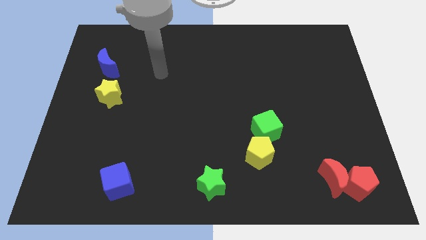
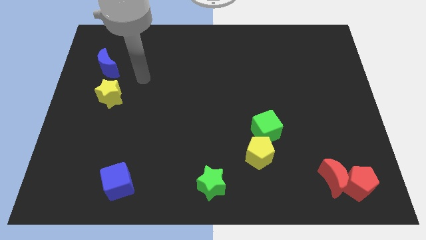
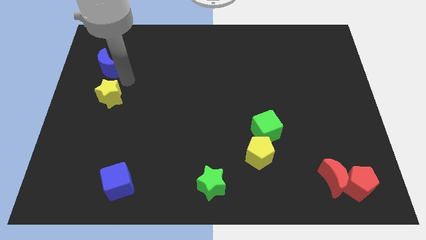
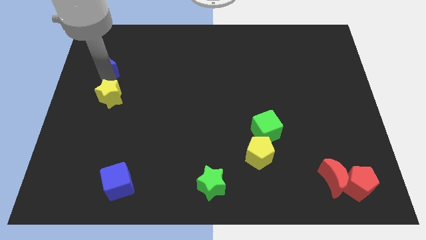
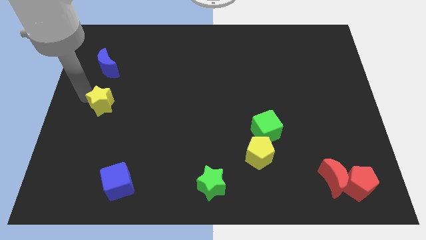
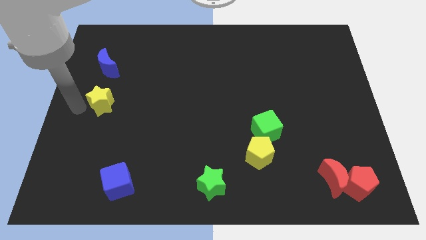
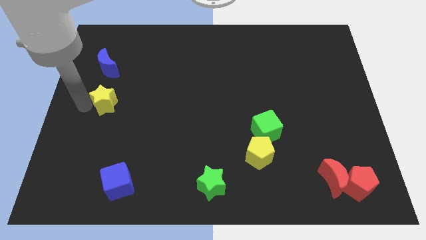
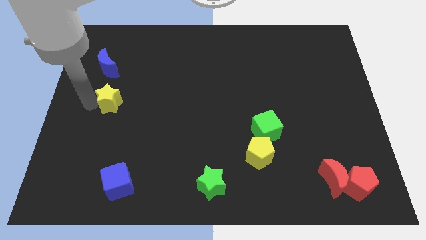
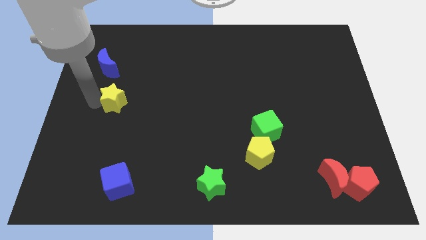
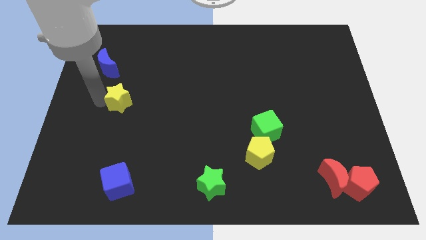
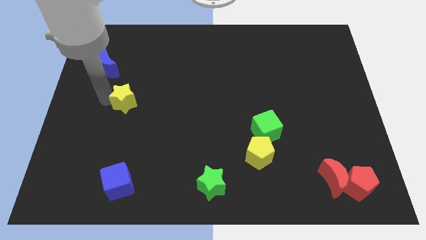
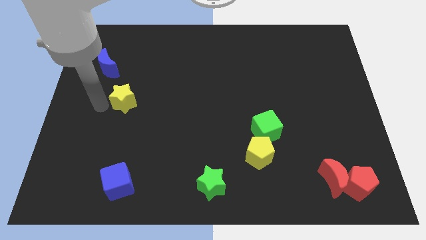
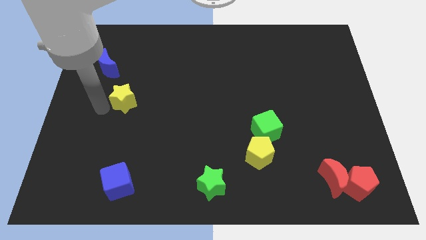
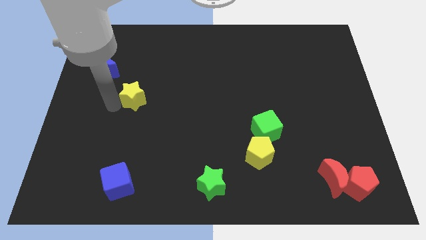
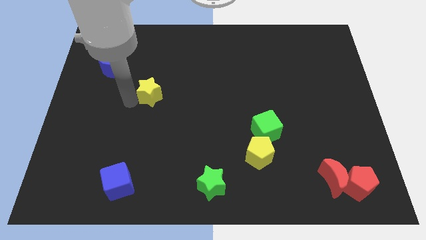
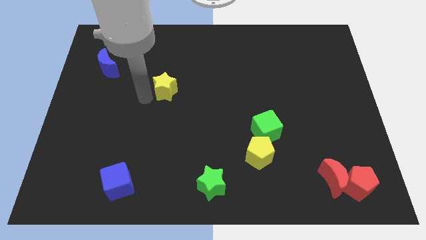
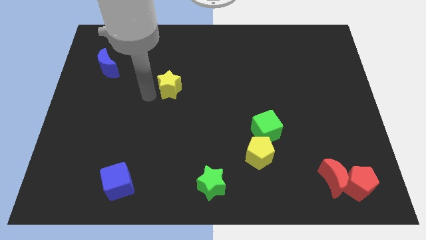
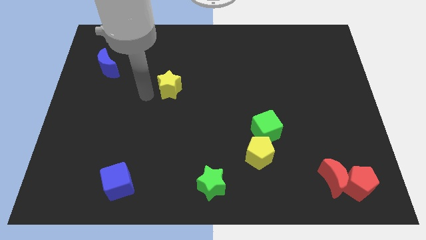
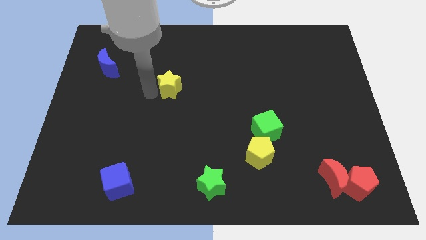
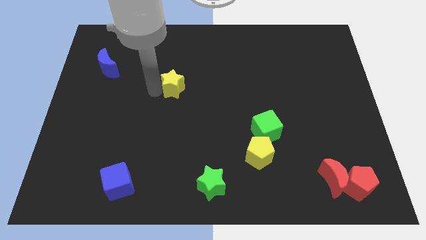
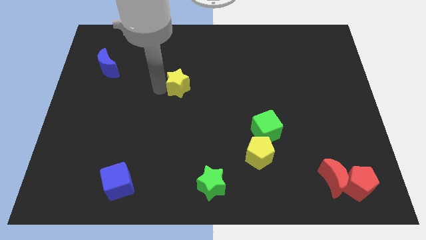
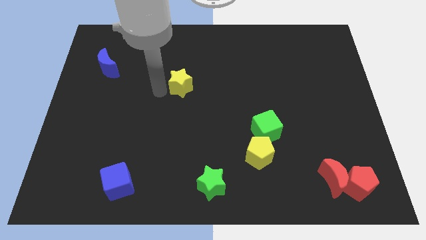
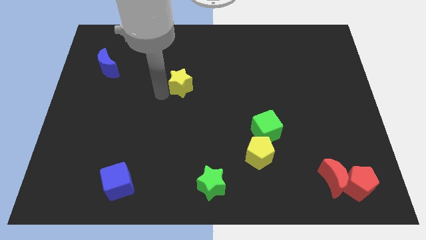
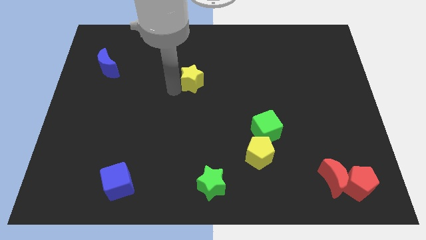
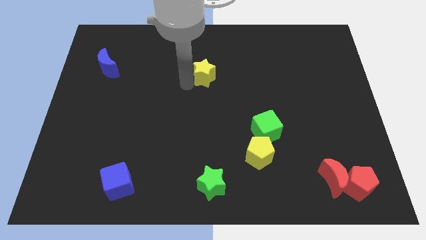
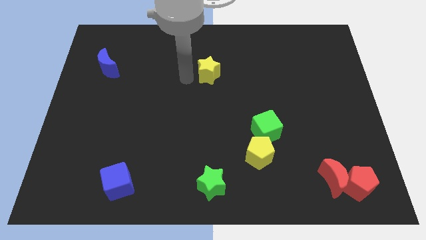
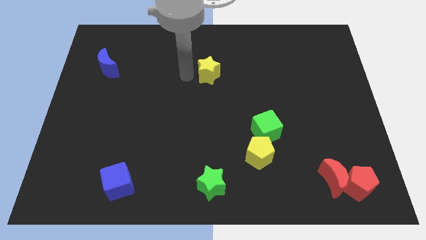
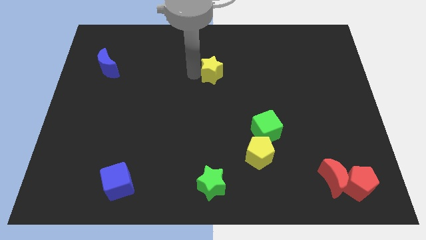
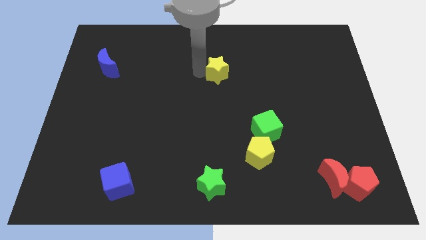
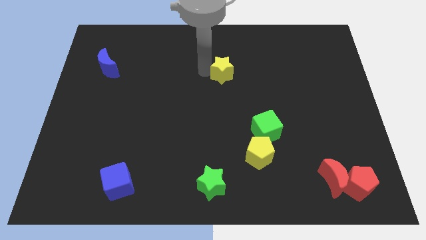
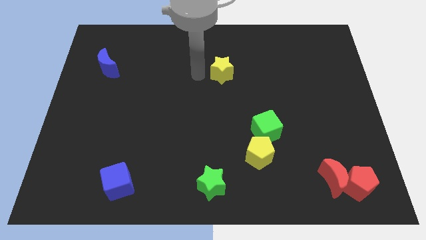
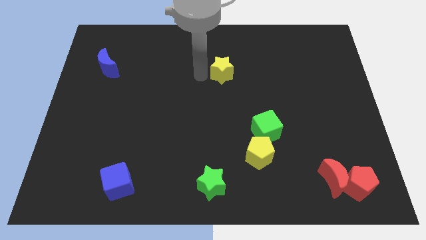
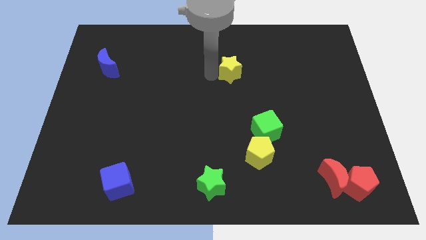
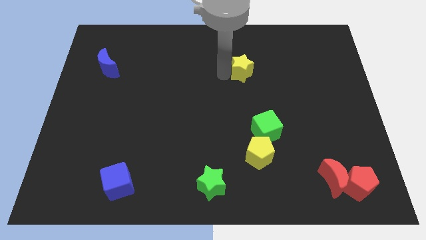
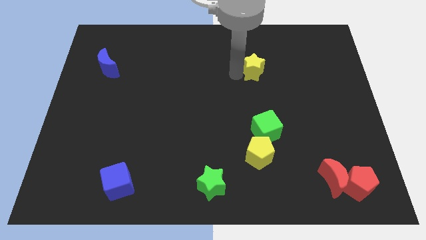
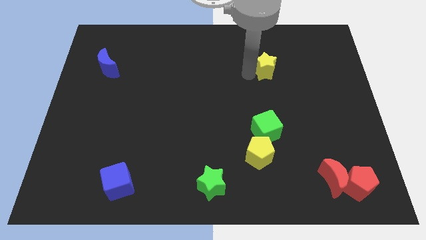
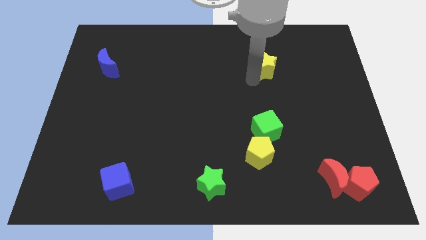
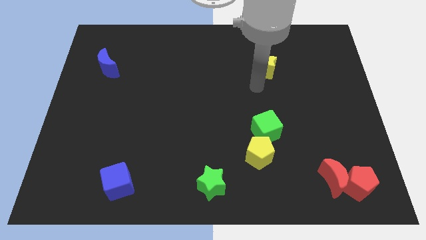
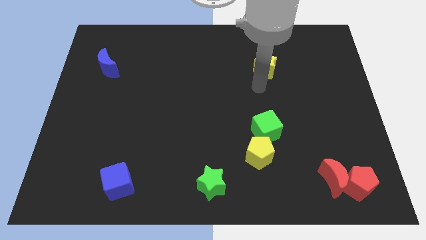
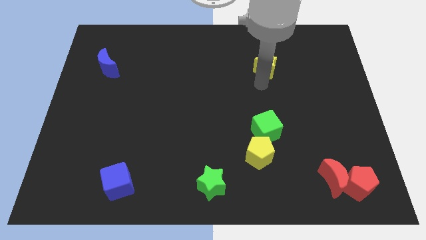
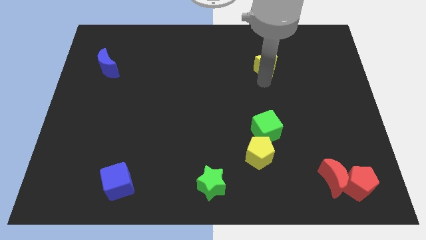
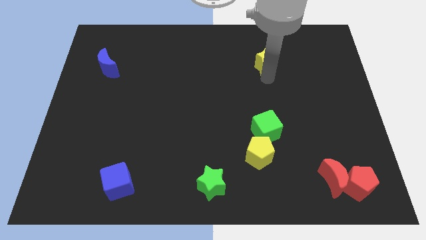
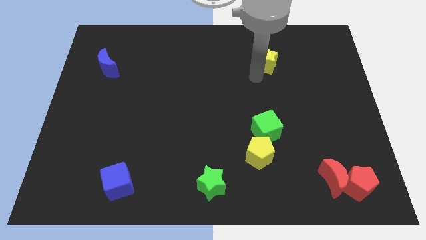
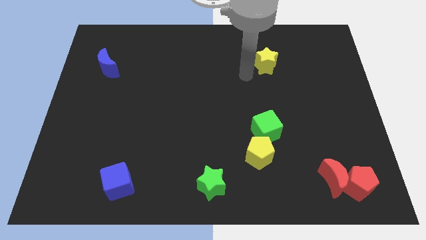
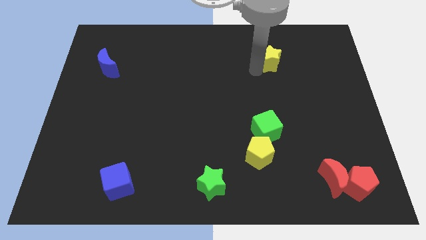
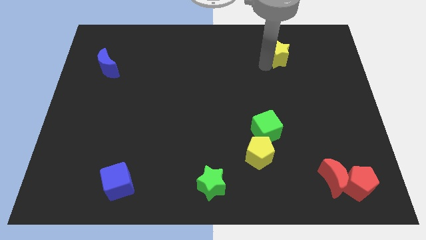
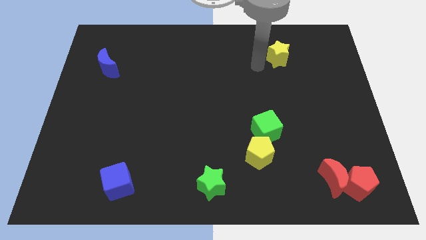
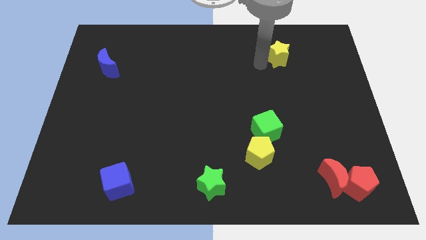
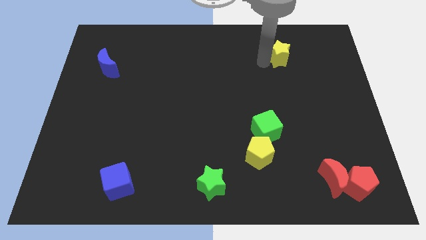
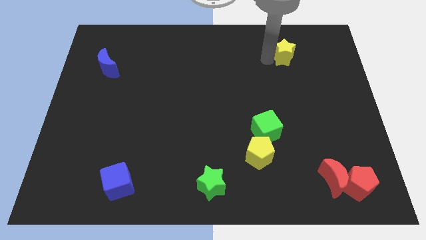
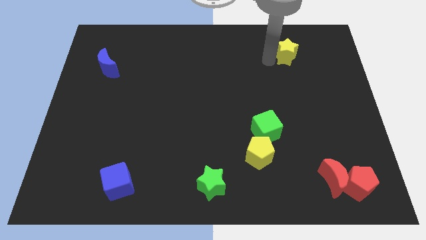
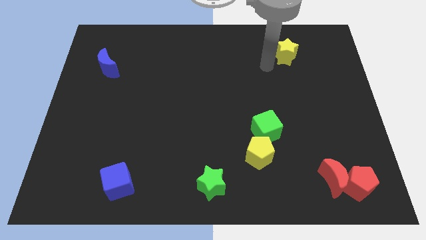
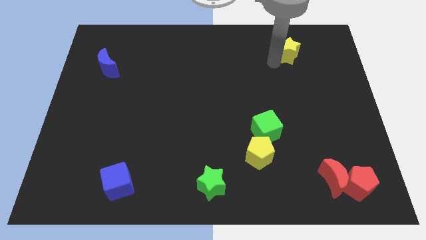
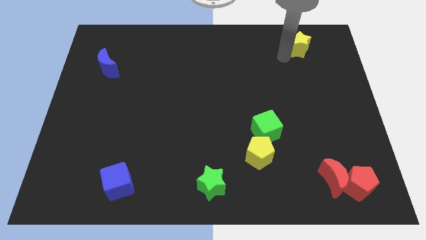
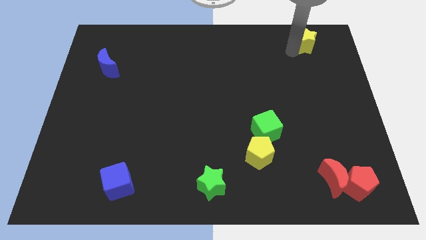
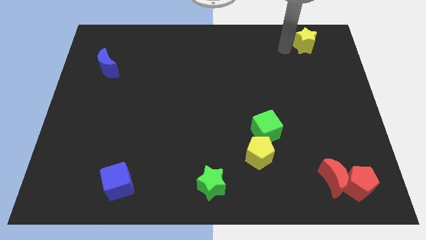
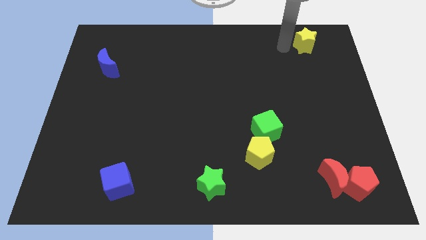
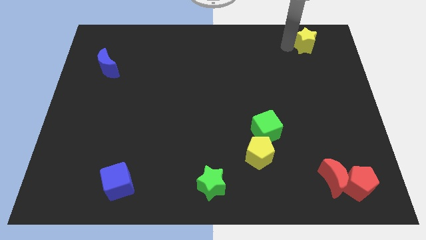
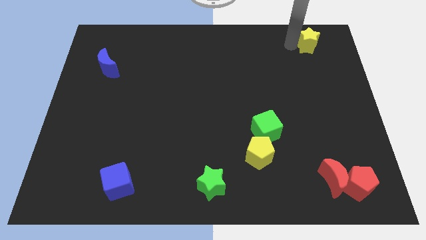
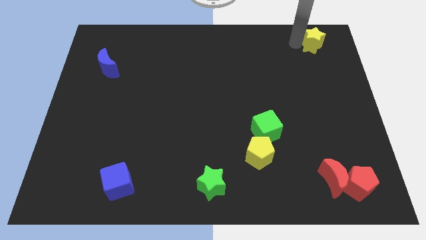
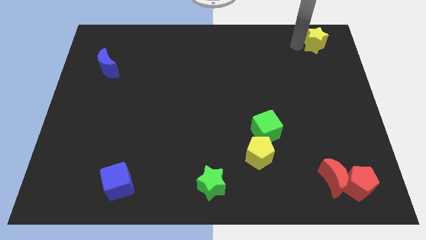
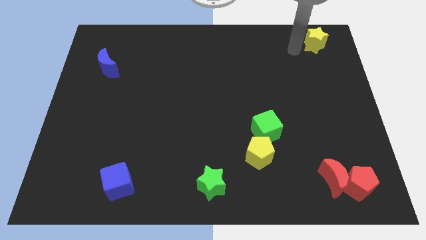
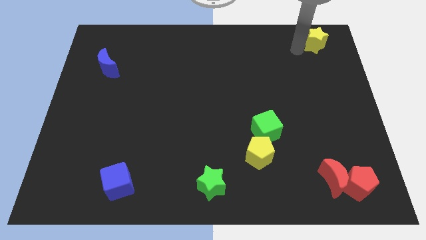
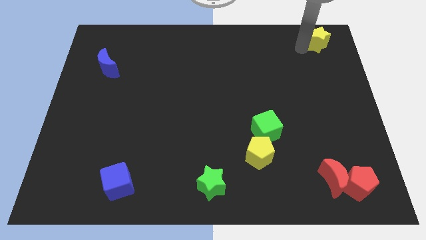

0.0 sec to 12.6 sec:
push the yellow star to the top right of the board
